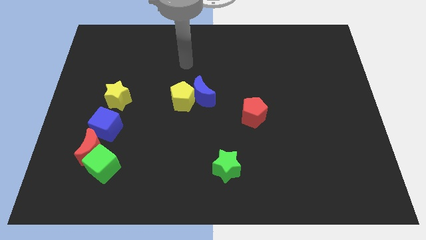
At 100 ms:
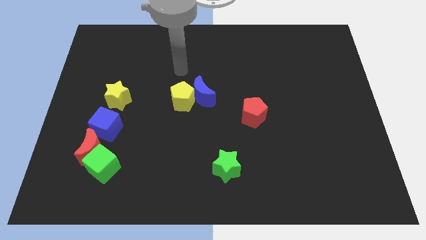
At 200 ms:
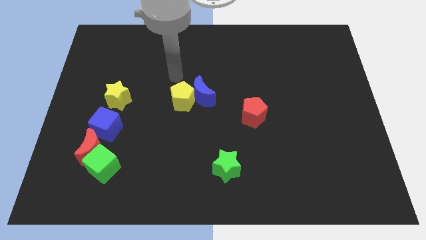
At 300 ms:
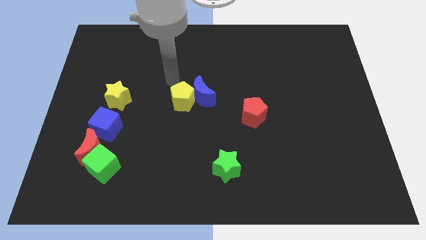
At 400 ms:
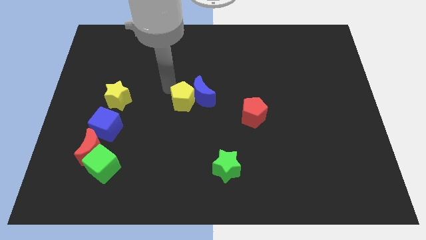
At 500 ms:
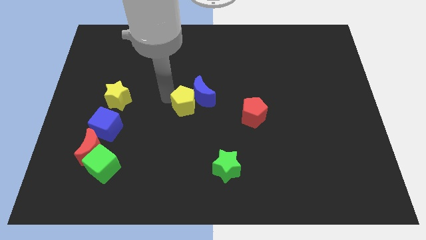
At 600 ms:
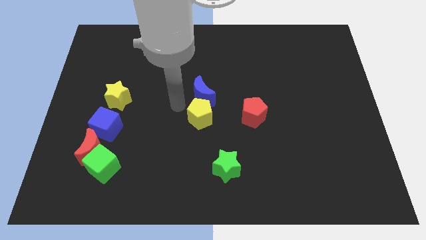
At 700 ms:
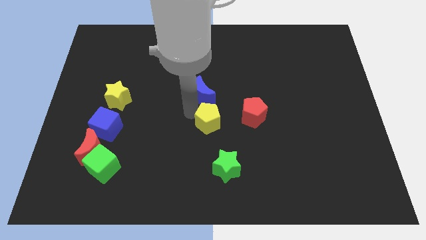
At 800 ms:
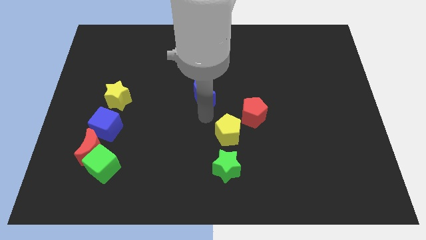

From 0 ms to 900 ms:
separate the blue moon from the yellow pentagon

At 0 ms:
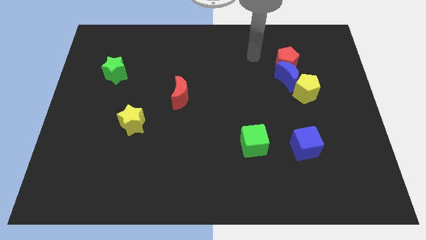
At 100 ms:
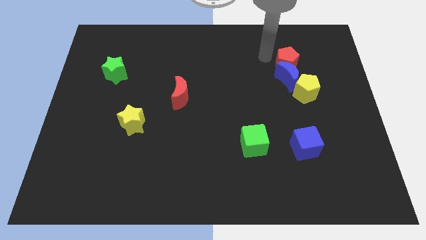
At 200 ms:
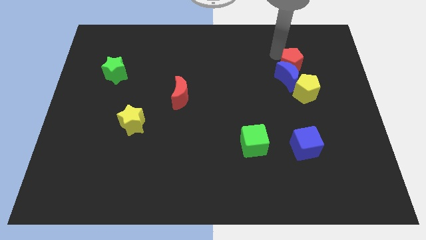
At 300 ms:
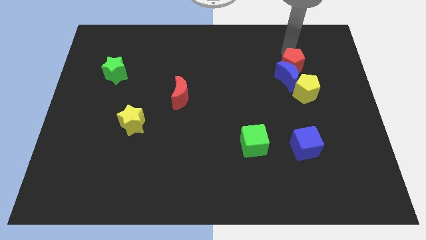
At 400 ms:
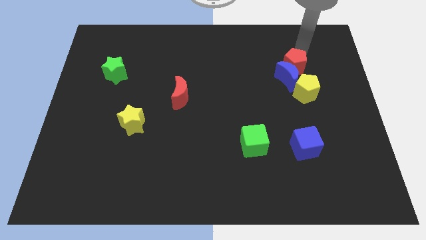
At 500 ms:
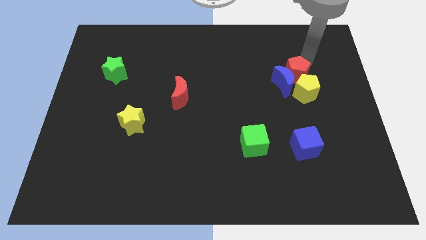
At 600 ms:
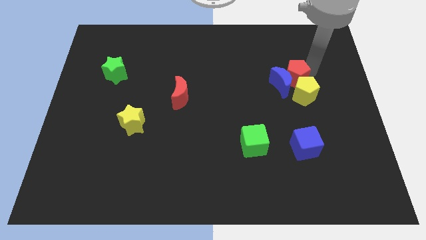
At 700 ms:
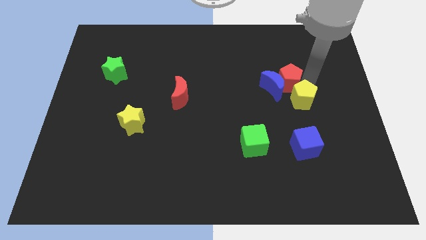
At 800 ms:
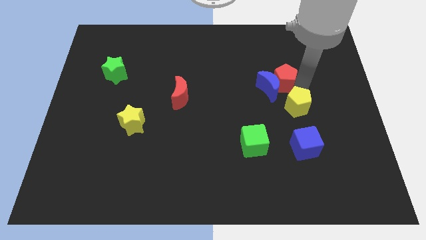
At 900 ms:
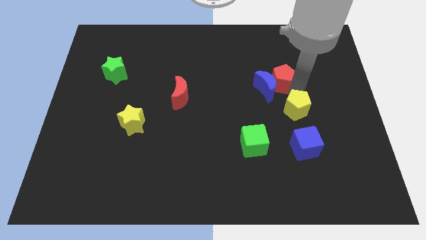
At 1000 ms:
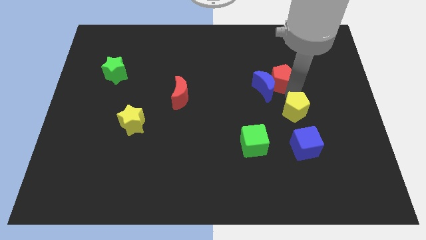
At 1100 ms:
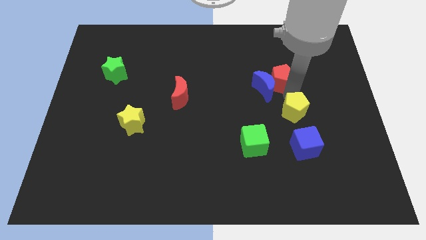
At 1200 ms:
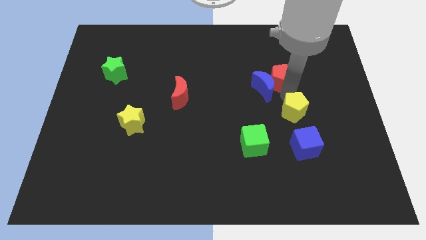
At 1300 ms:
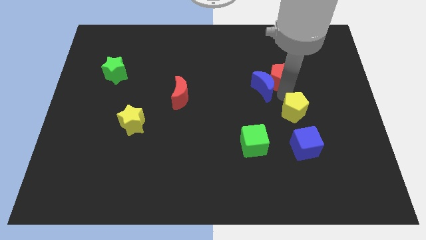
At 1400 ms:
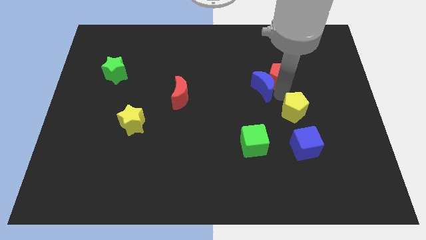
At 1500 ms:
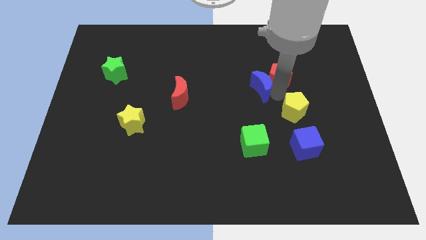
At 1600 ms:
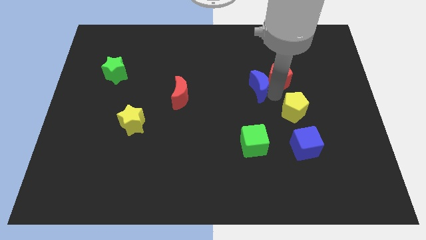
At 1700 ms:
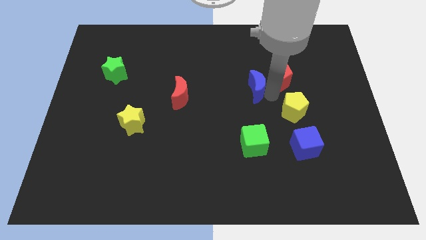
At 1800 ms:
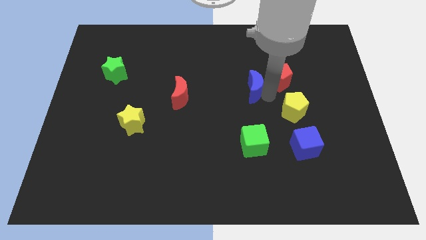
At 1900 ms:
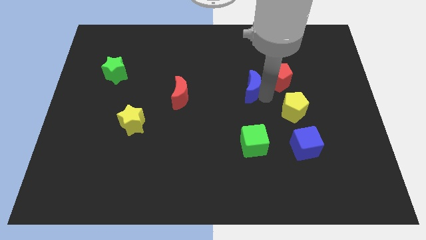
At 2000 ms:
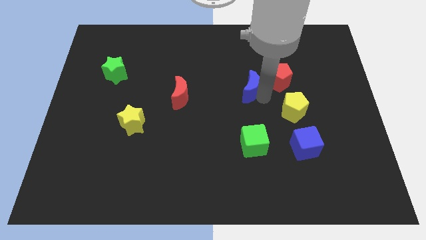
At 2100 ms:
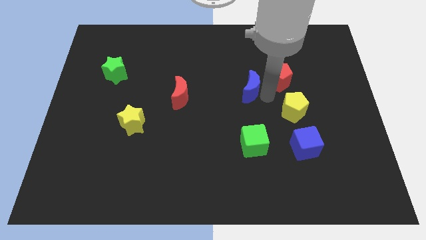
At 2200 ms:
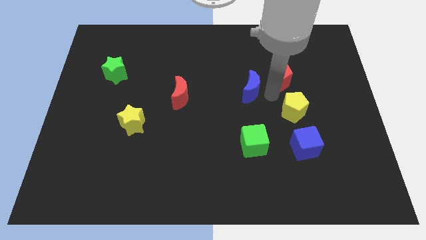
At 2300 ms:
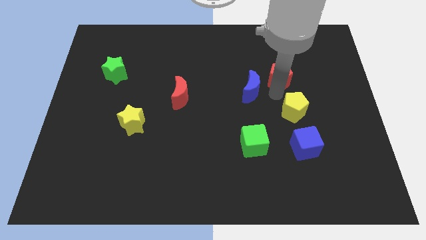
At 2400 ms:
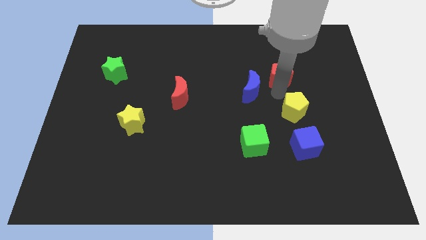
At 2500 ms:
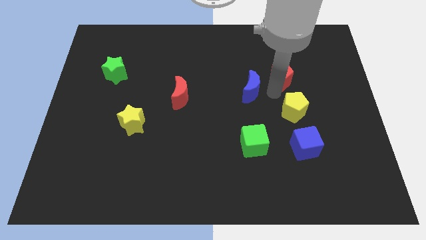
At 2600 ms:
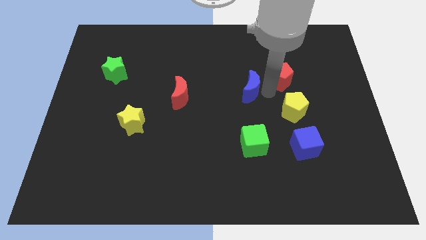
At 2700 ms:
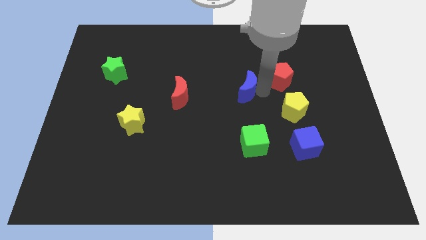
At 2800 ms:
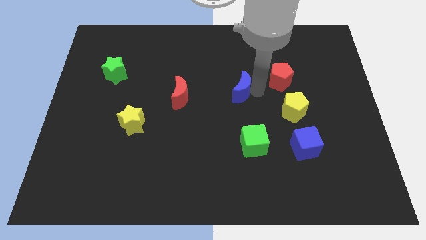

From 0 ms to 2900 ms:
move the blue moon away from the red pentagon and yellow pentagon

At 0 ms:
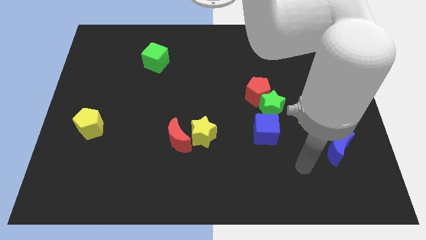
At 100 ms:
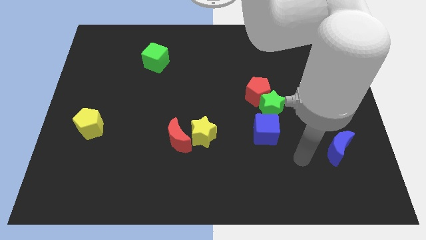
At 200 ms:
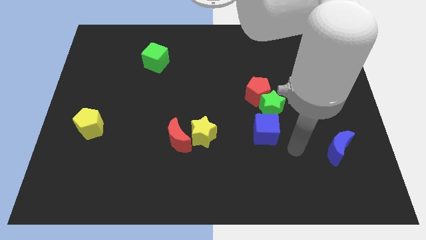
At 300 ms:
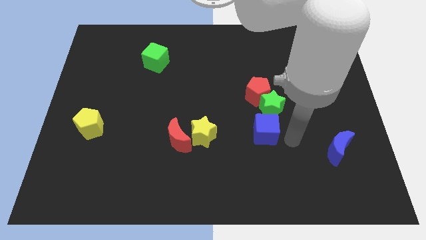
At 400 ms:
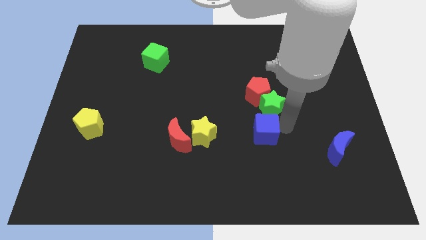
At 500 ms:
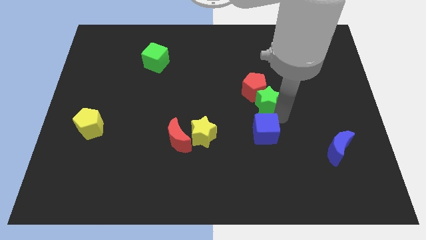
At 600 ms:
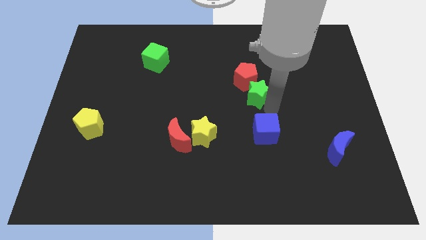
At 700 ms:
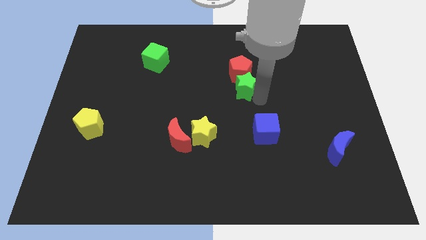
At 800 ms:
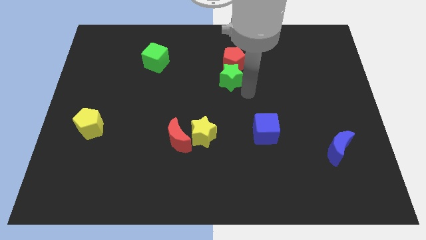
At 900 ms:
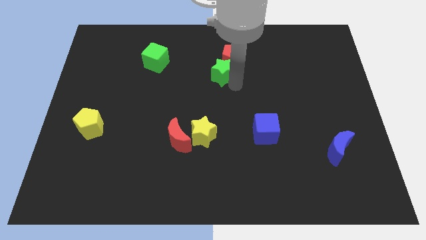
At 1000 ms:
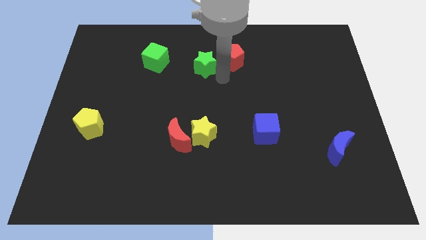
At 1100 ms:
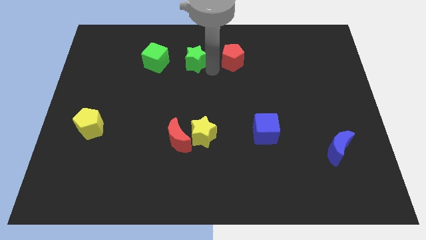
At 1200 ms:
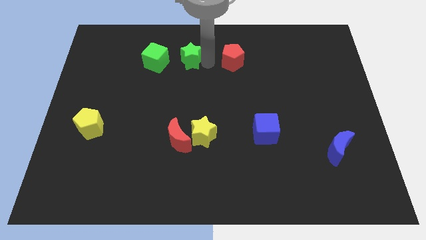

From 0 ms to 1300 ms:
move the red pentagon away from the green star

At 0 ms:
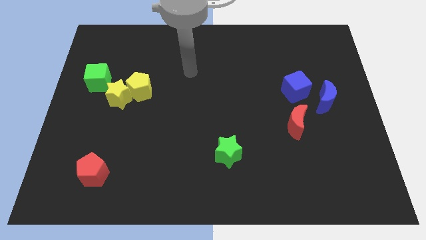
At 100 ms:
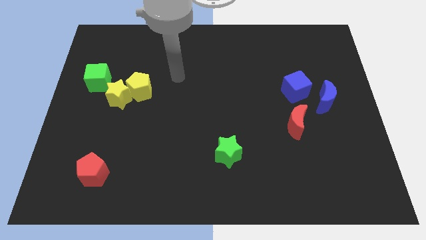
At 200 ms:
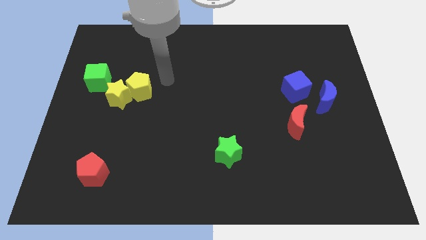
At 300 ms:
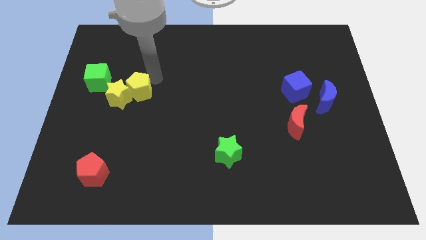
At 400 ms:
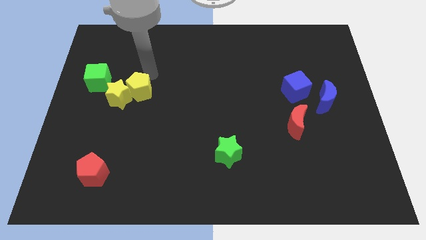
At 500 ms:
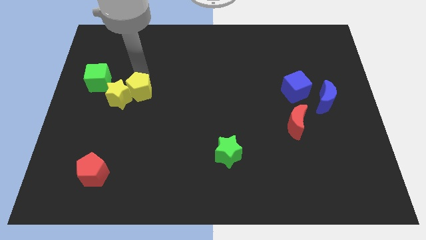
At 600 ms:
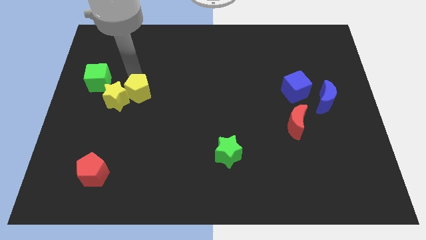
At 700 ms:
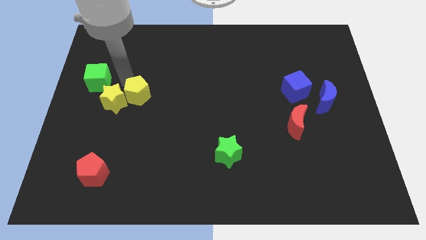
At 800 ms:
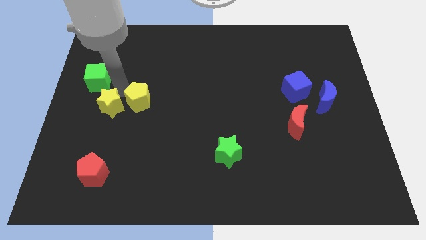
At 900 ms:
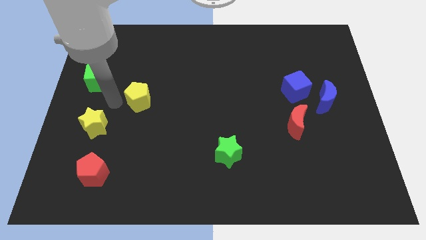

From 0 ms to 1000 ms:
move the yellow pentagon away from the yellow star

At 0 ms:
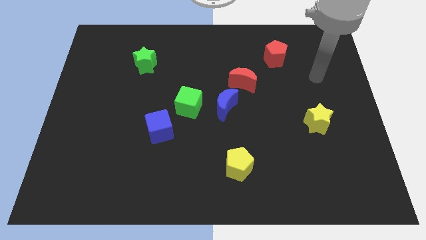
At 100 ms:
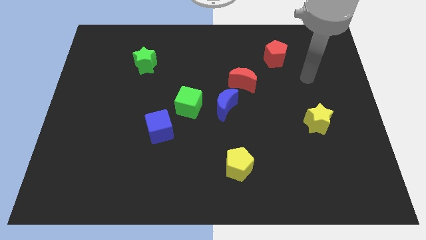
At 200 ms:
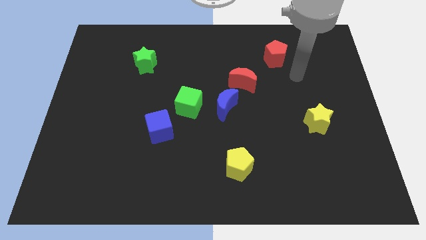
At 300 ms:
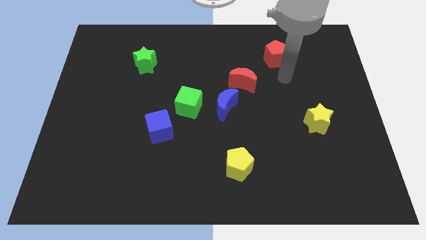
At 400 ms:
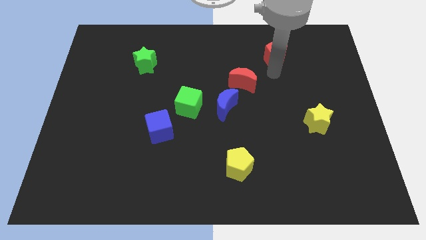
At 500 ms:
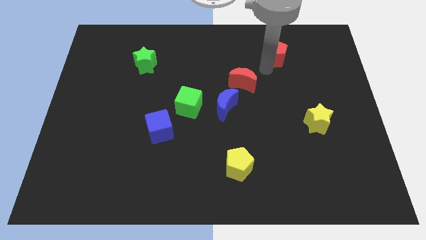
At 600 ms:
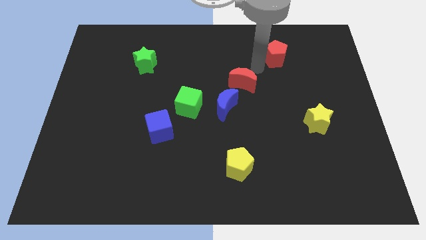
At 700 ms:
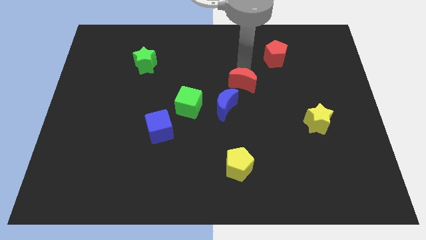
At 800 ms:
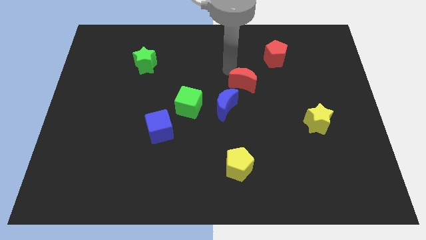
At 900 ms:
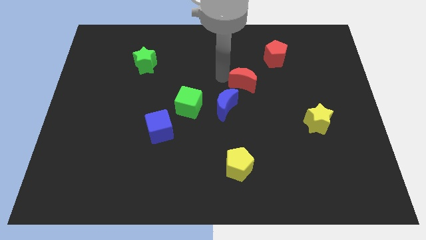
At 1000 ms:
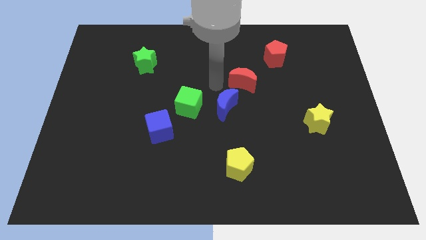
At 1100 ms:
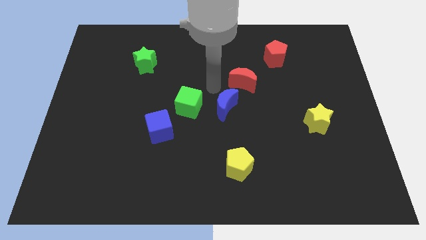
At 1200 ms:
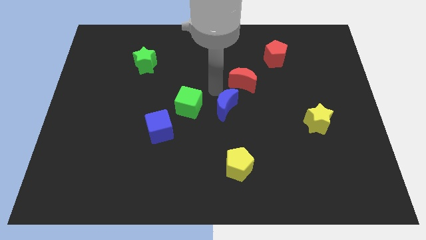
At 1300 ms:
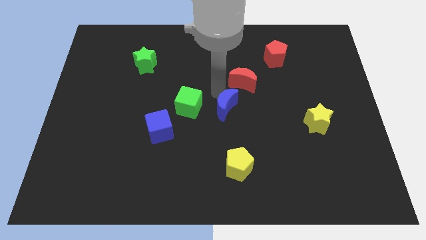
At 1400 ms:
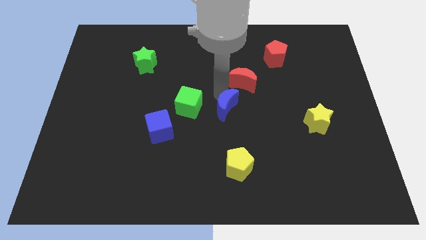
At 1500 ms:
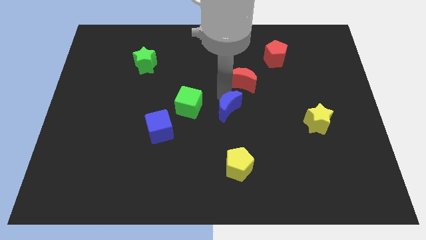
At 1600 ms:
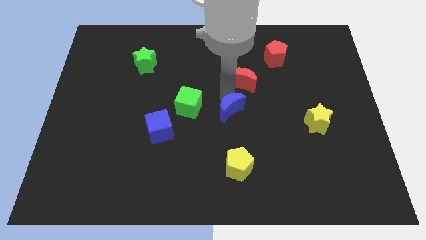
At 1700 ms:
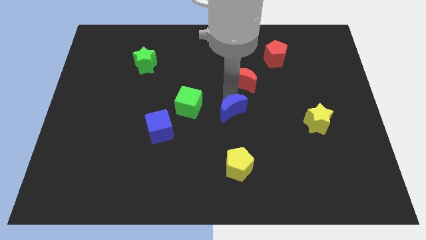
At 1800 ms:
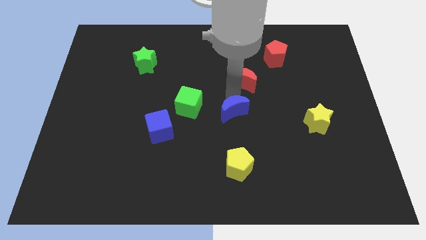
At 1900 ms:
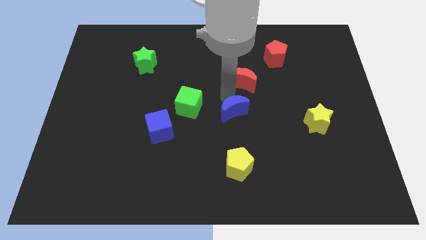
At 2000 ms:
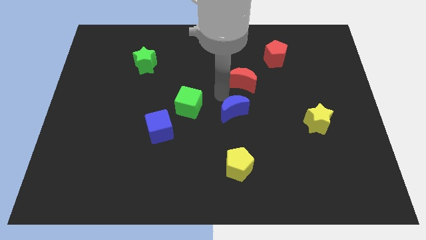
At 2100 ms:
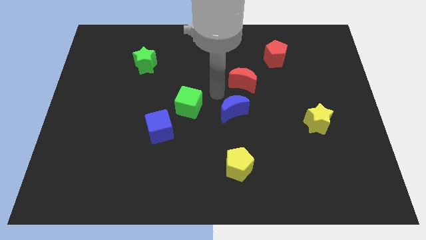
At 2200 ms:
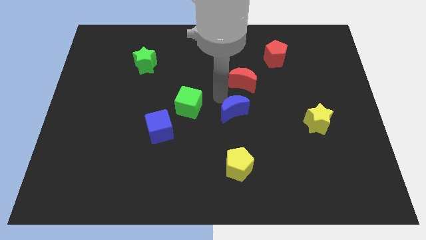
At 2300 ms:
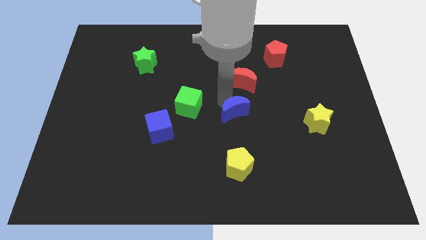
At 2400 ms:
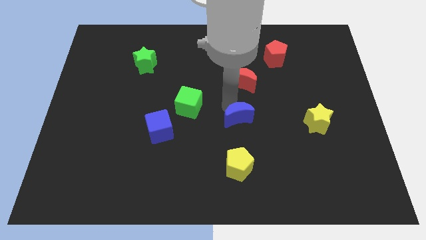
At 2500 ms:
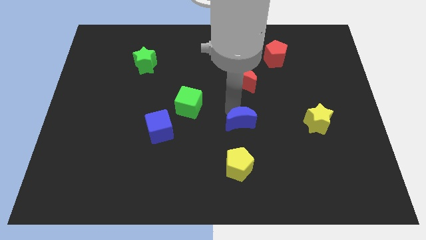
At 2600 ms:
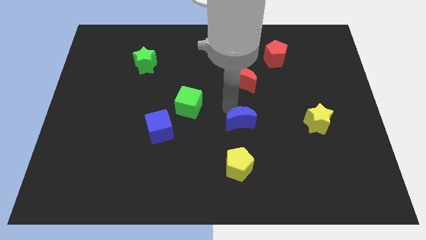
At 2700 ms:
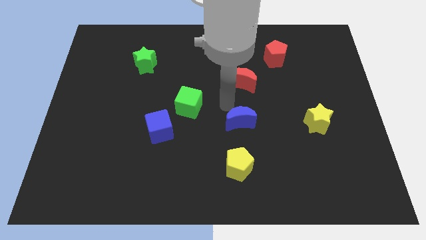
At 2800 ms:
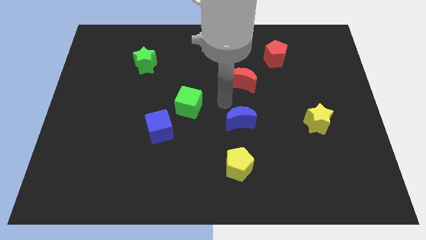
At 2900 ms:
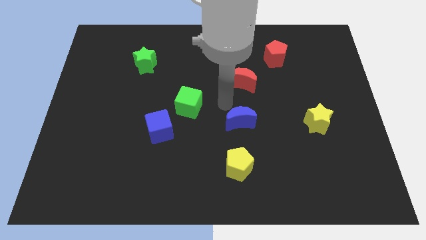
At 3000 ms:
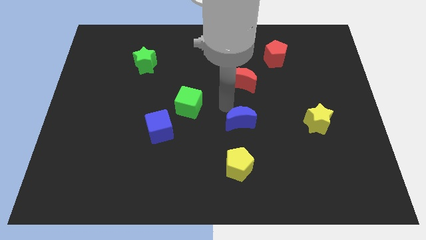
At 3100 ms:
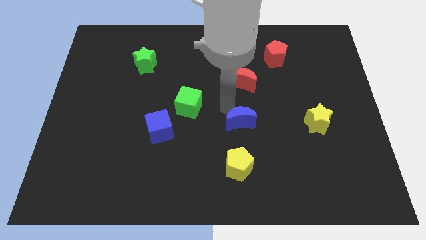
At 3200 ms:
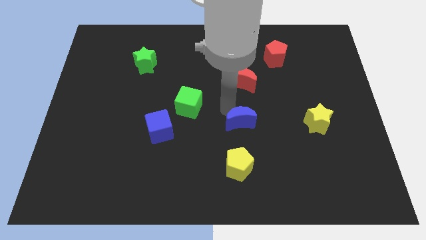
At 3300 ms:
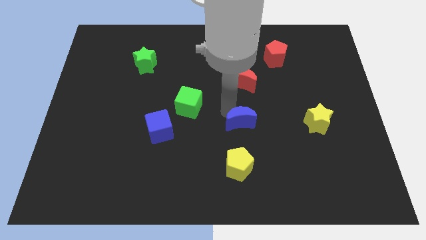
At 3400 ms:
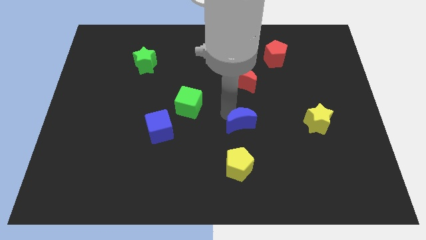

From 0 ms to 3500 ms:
move the blue moon away from the green cube and red moon
